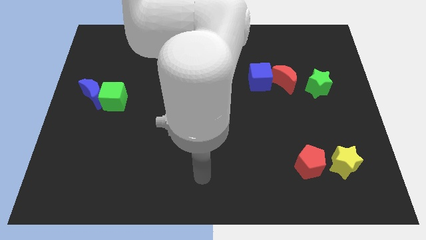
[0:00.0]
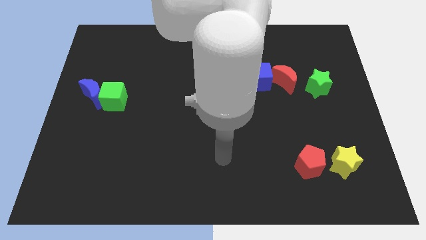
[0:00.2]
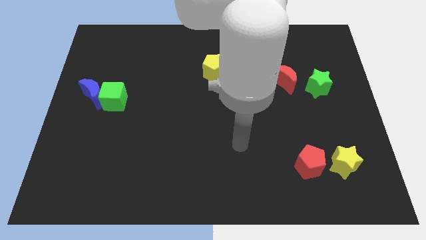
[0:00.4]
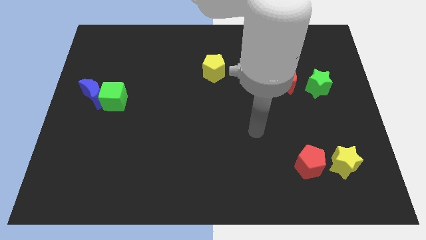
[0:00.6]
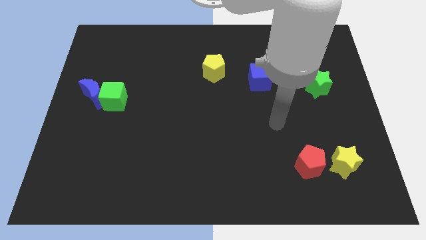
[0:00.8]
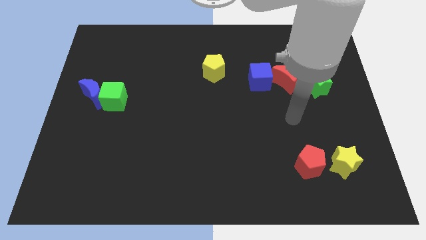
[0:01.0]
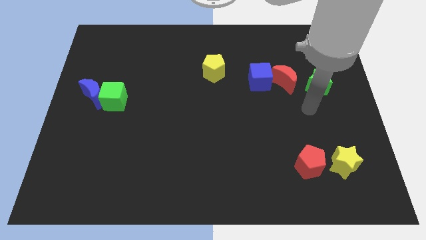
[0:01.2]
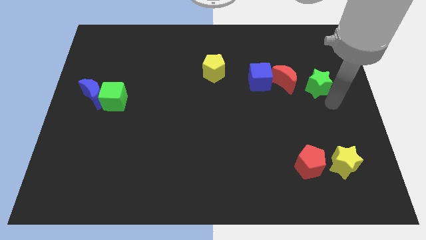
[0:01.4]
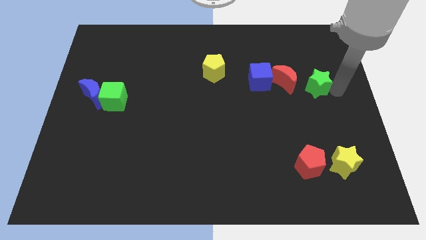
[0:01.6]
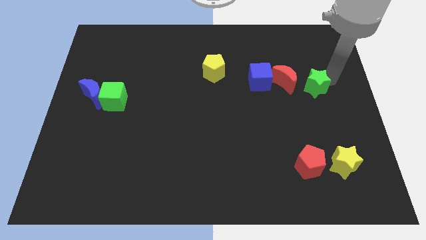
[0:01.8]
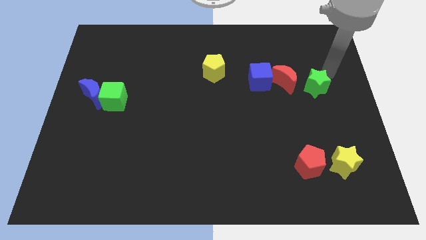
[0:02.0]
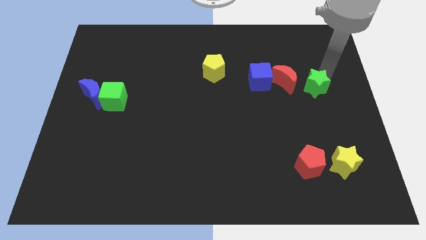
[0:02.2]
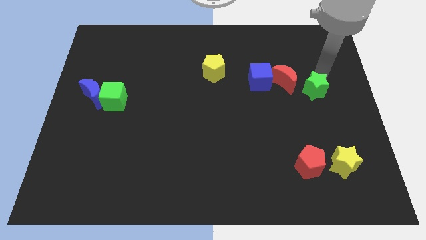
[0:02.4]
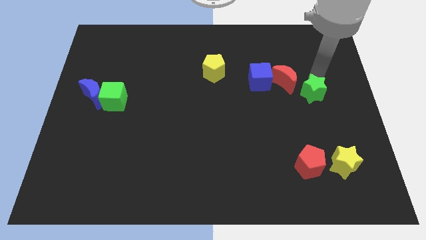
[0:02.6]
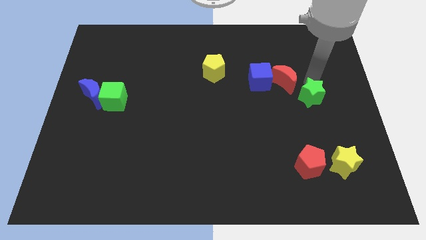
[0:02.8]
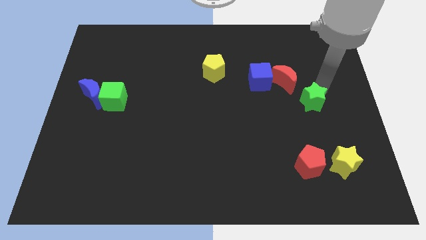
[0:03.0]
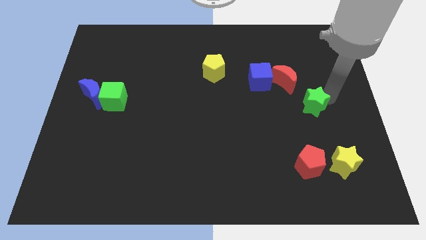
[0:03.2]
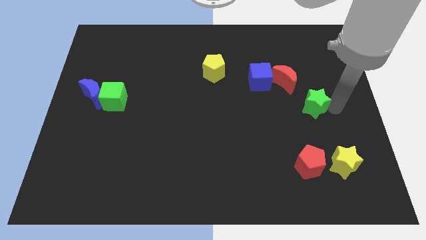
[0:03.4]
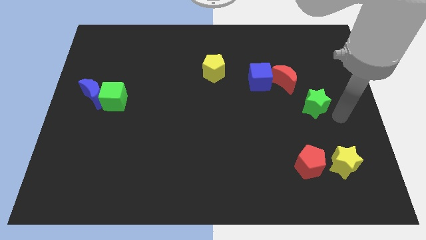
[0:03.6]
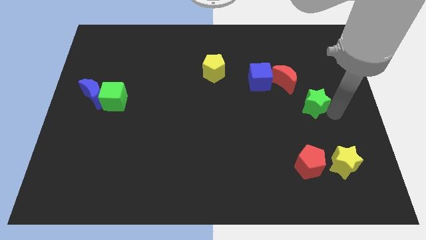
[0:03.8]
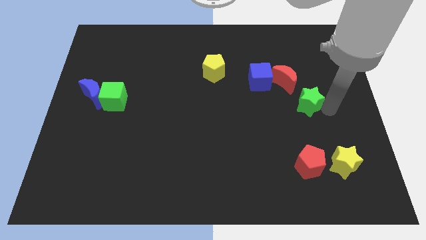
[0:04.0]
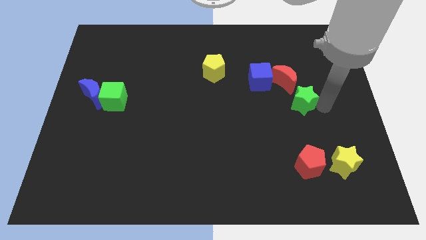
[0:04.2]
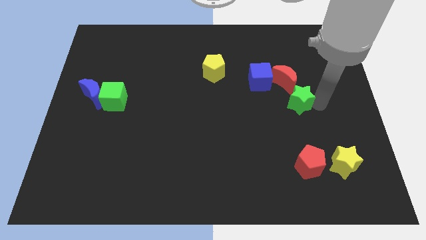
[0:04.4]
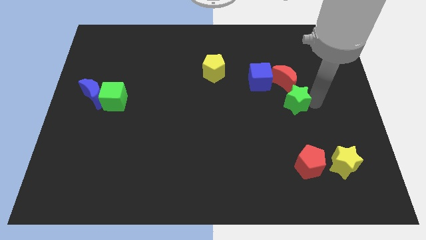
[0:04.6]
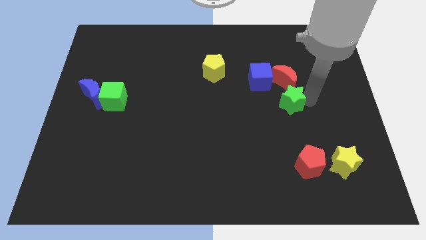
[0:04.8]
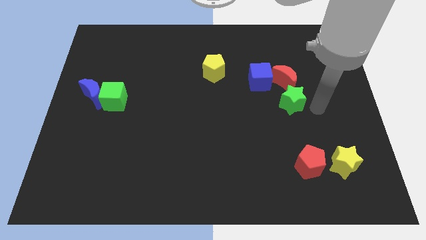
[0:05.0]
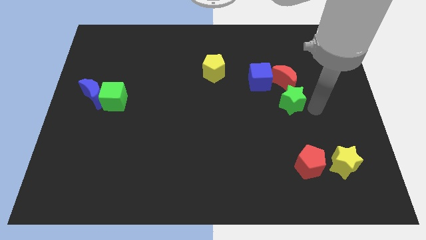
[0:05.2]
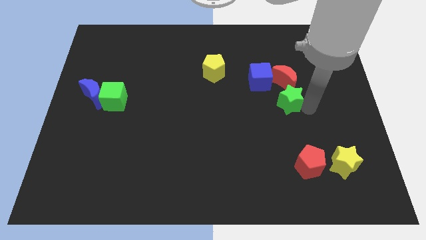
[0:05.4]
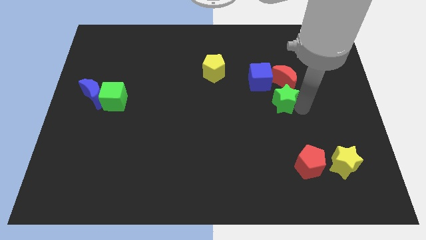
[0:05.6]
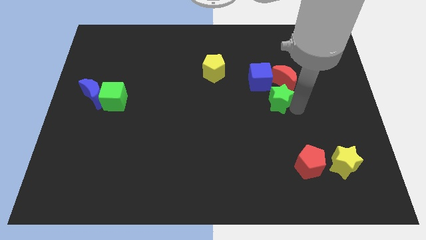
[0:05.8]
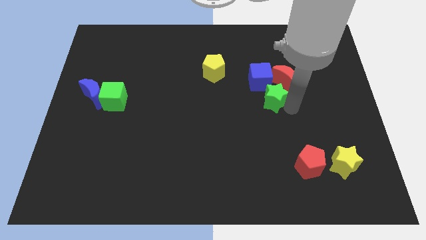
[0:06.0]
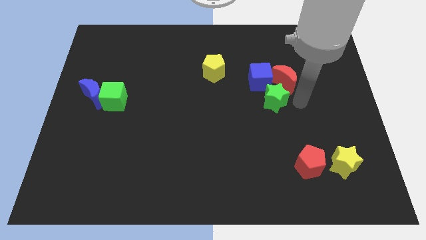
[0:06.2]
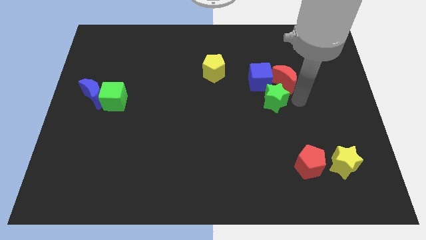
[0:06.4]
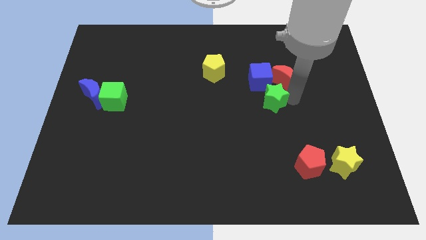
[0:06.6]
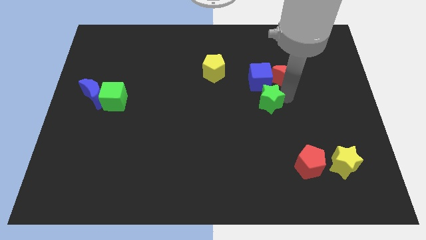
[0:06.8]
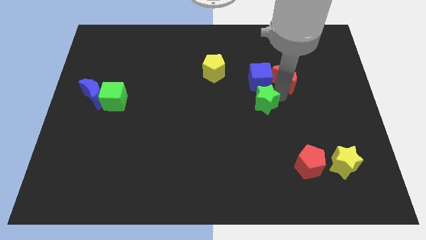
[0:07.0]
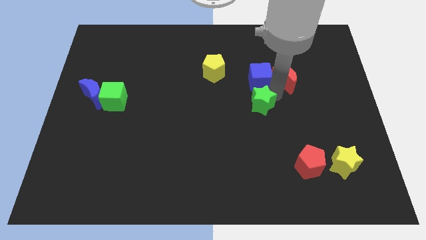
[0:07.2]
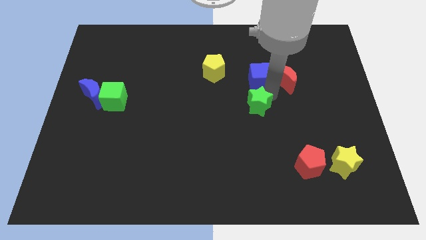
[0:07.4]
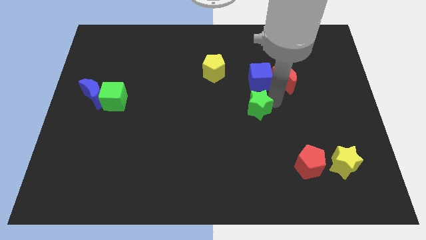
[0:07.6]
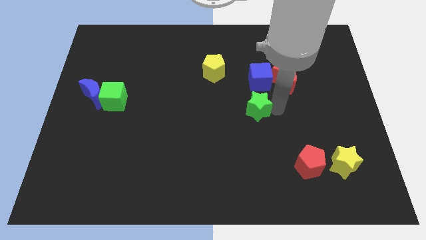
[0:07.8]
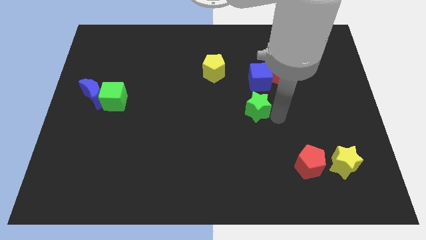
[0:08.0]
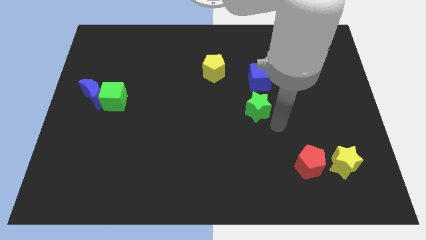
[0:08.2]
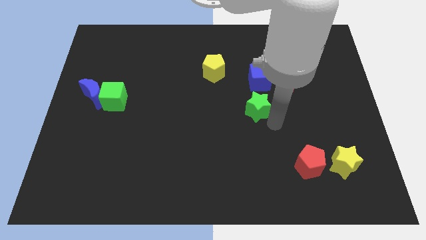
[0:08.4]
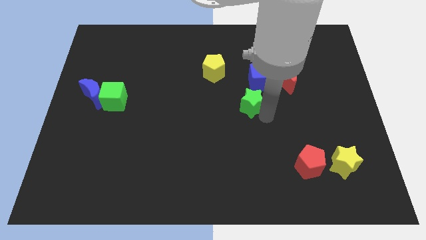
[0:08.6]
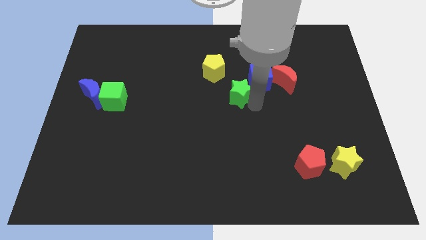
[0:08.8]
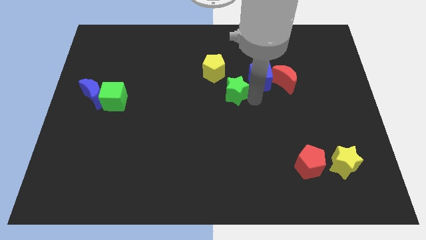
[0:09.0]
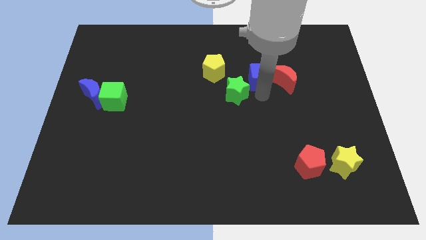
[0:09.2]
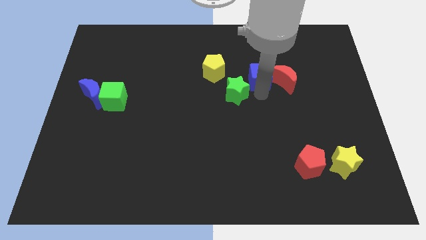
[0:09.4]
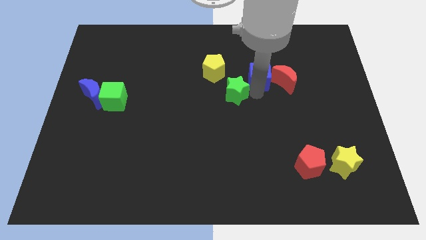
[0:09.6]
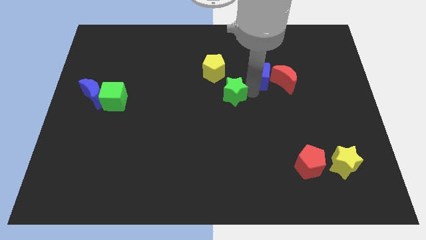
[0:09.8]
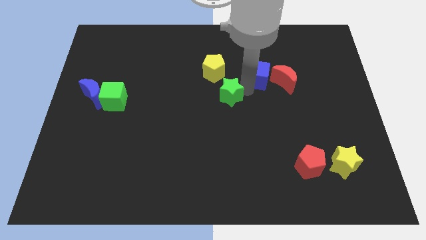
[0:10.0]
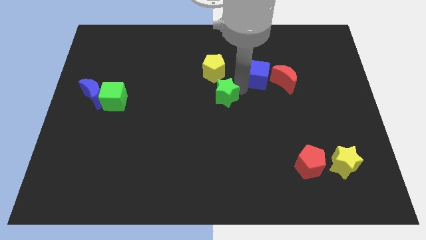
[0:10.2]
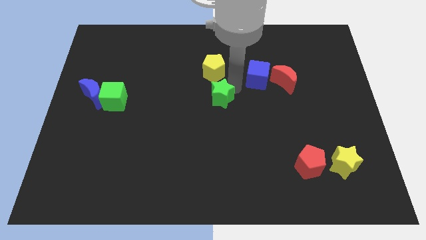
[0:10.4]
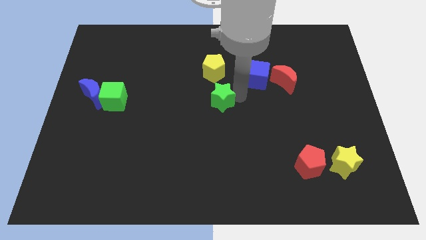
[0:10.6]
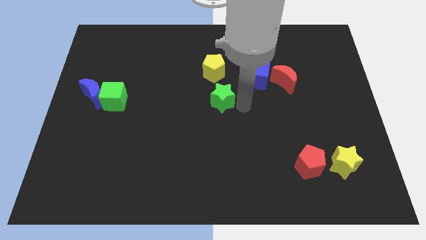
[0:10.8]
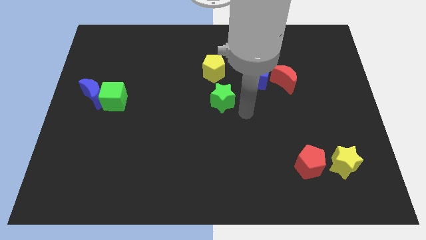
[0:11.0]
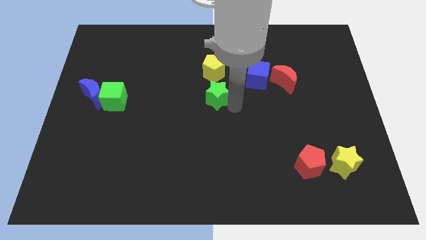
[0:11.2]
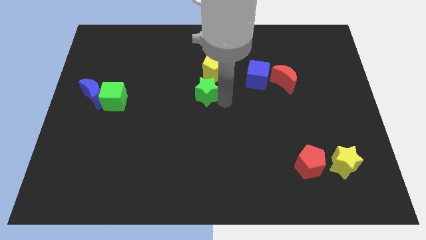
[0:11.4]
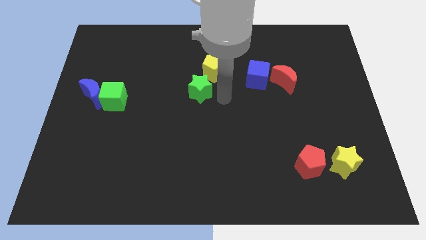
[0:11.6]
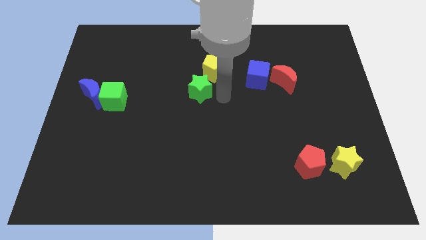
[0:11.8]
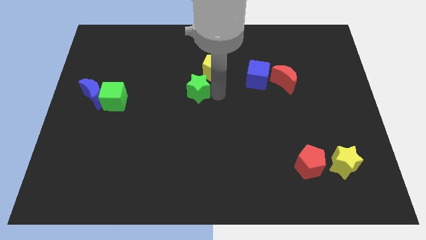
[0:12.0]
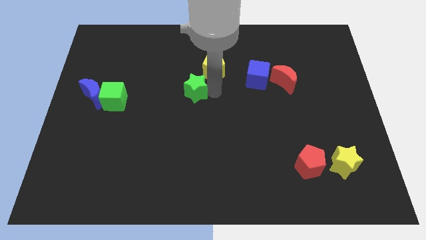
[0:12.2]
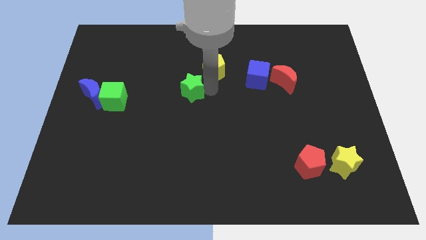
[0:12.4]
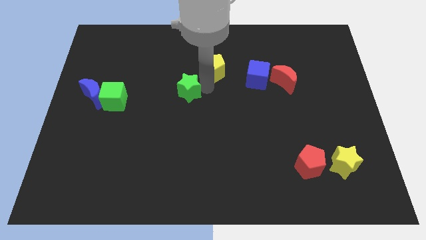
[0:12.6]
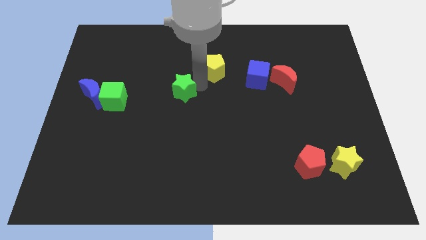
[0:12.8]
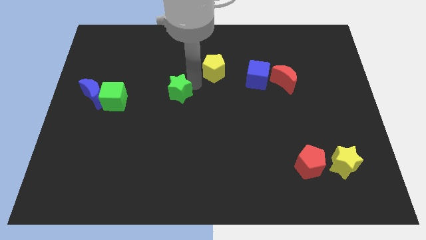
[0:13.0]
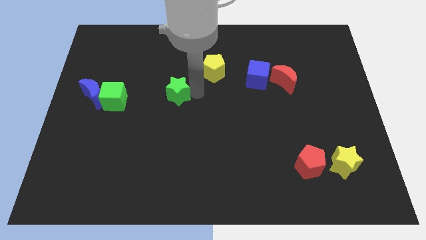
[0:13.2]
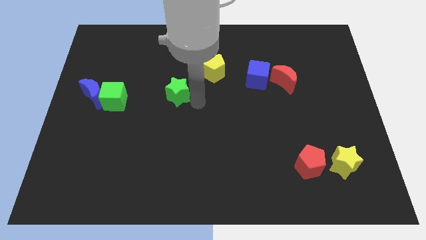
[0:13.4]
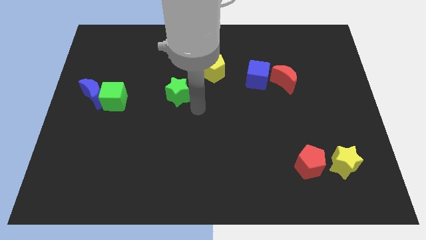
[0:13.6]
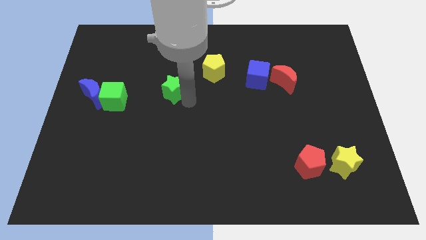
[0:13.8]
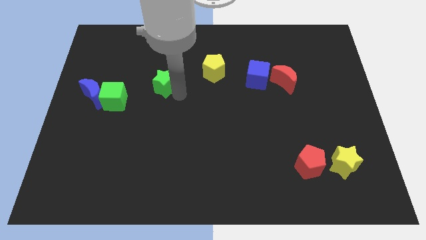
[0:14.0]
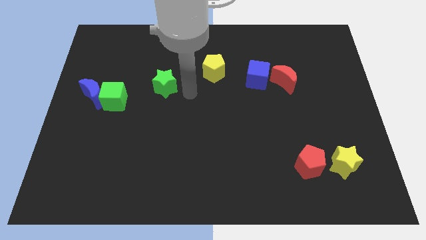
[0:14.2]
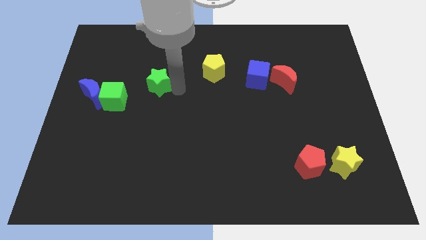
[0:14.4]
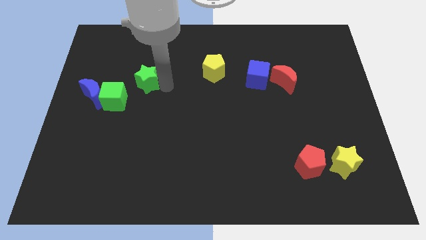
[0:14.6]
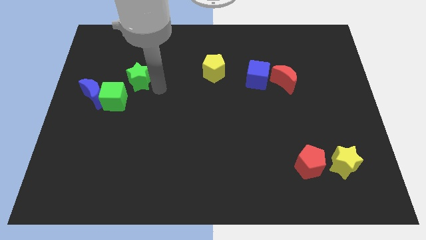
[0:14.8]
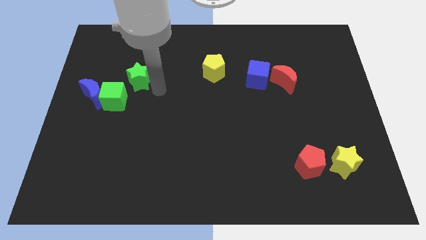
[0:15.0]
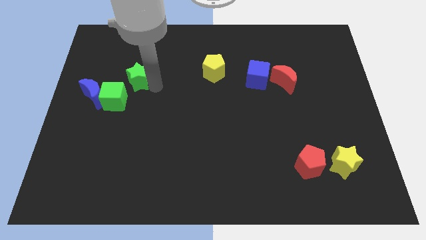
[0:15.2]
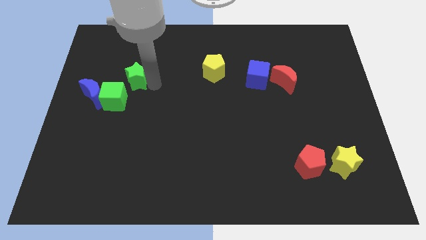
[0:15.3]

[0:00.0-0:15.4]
put the green star above the green cube
